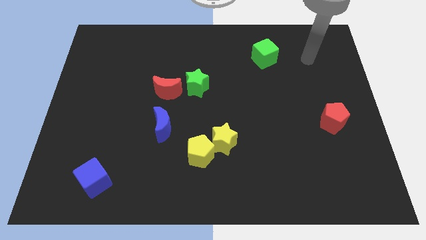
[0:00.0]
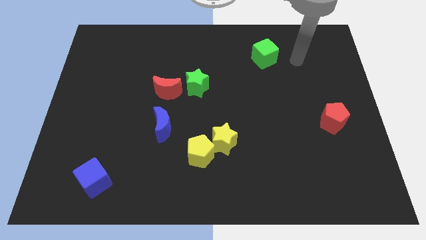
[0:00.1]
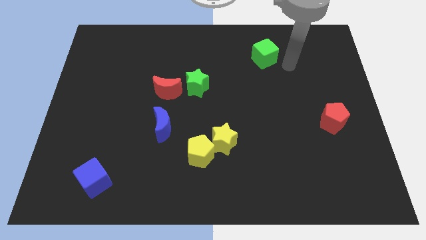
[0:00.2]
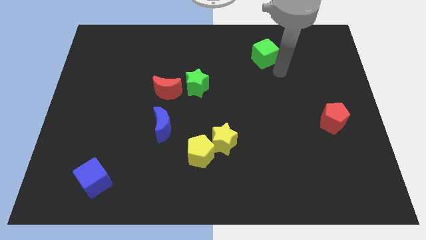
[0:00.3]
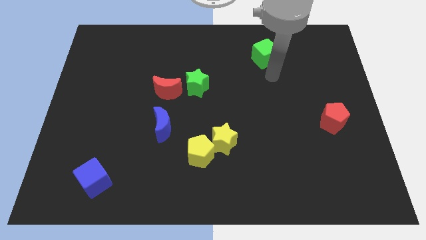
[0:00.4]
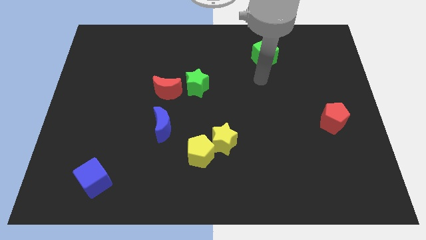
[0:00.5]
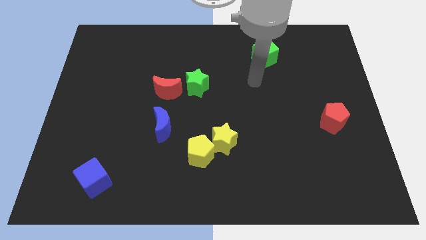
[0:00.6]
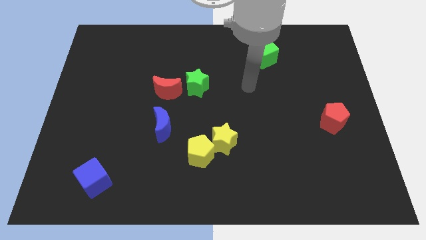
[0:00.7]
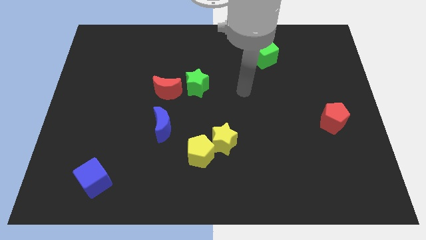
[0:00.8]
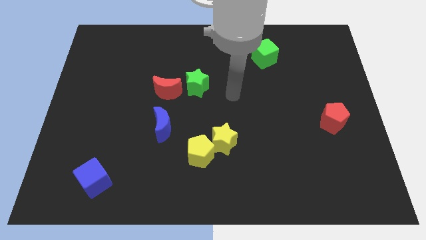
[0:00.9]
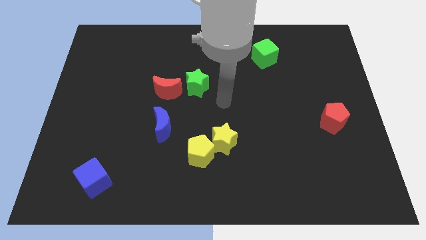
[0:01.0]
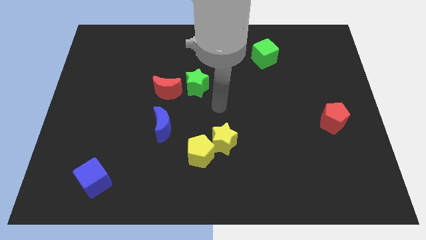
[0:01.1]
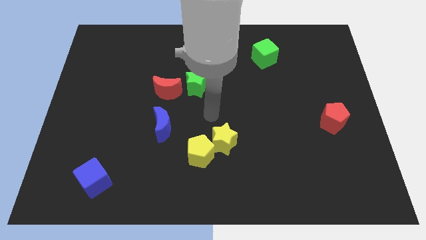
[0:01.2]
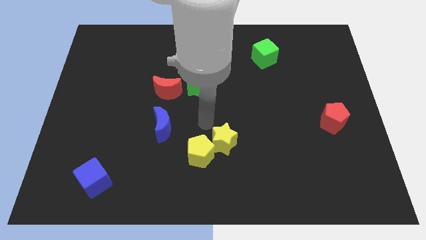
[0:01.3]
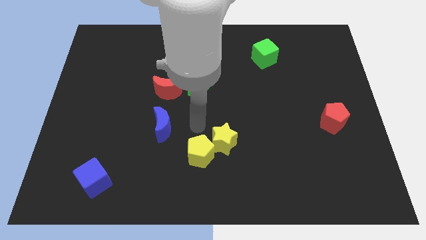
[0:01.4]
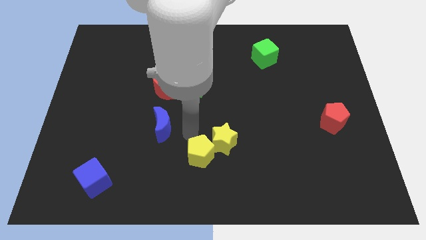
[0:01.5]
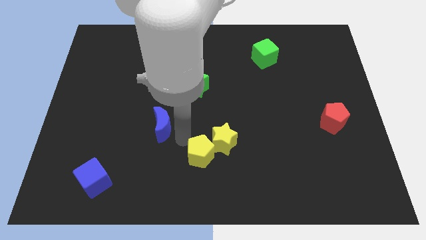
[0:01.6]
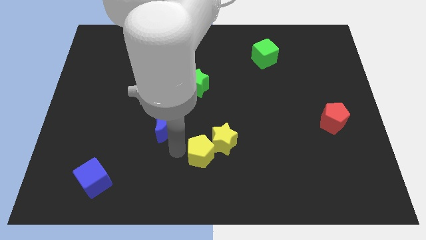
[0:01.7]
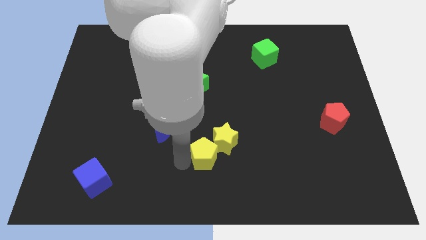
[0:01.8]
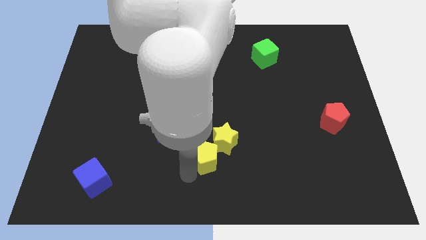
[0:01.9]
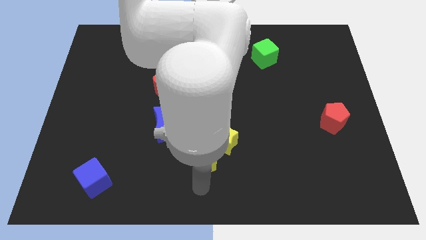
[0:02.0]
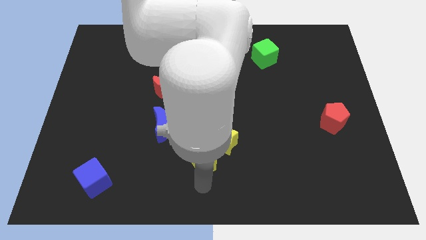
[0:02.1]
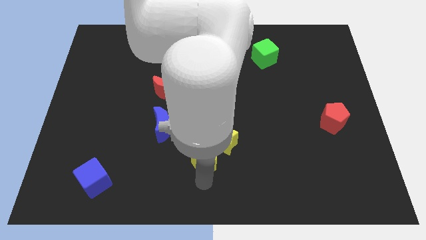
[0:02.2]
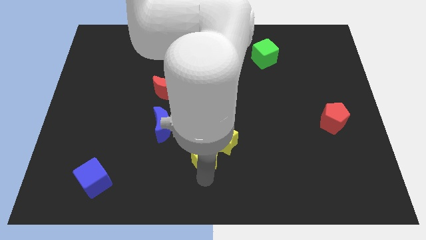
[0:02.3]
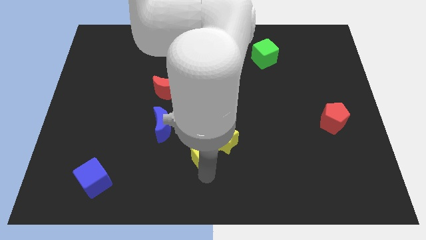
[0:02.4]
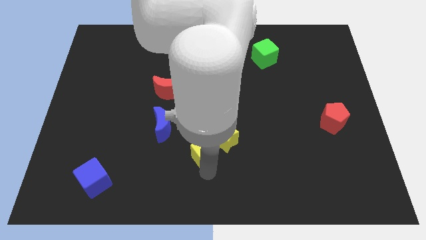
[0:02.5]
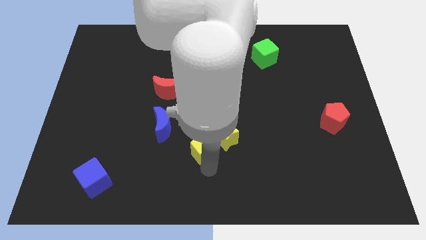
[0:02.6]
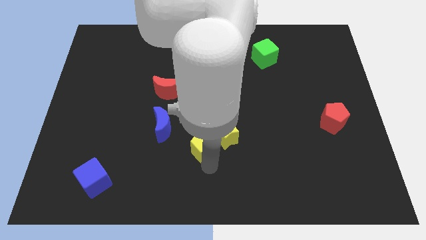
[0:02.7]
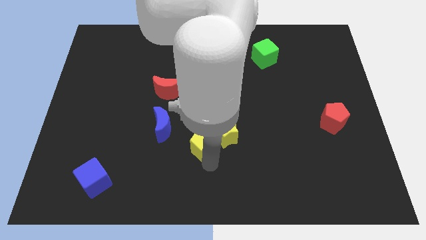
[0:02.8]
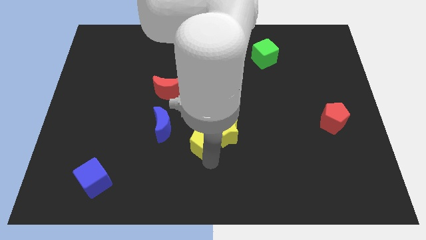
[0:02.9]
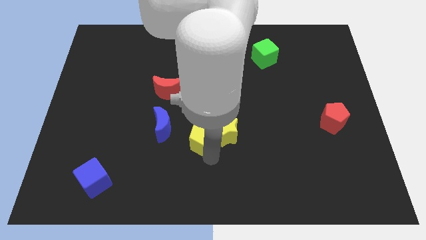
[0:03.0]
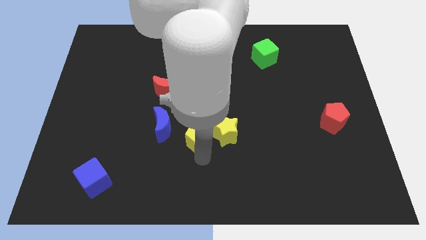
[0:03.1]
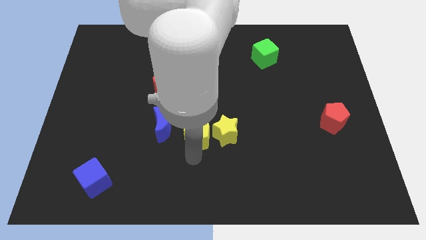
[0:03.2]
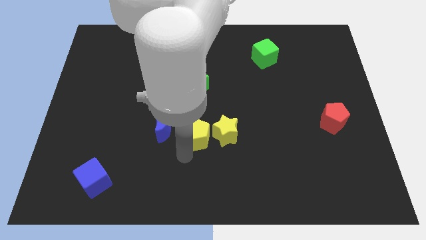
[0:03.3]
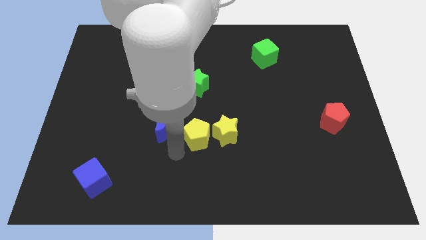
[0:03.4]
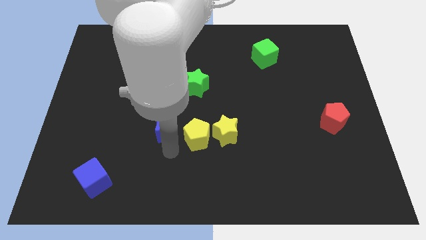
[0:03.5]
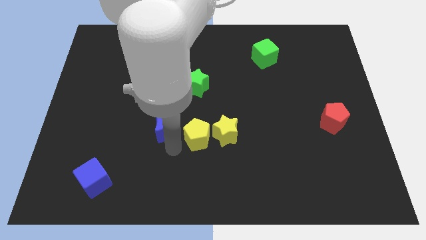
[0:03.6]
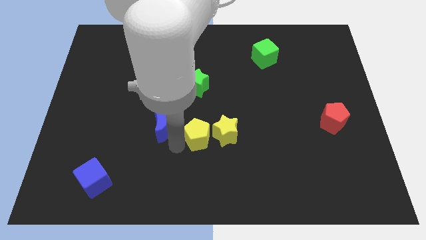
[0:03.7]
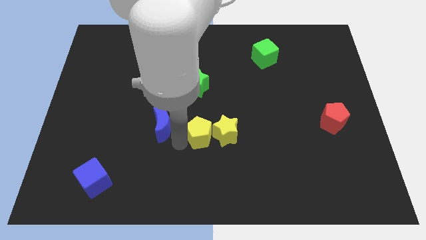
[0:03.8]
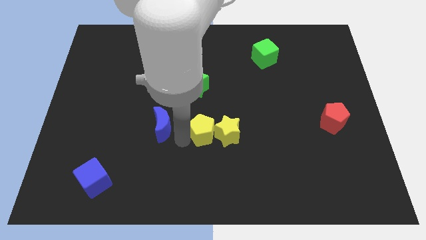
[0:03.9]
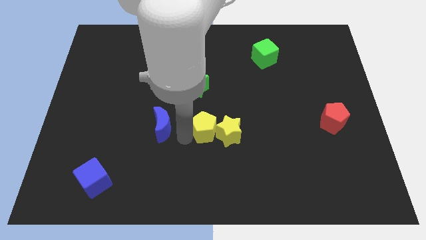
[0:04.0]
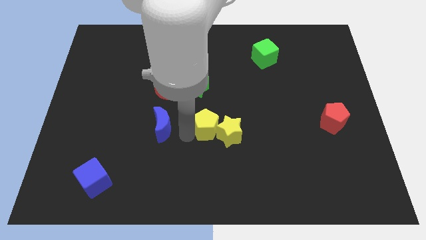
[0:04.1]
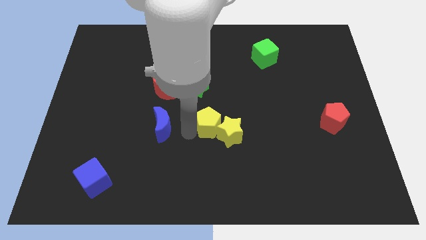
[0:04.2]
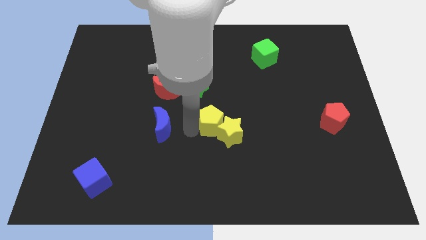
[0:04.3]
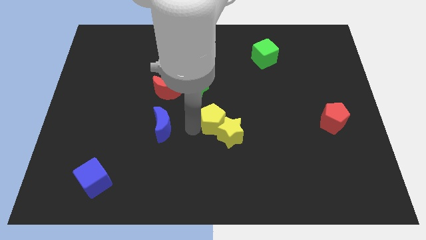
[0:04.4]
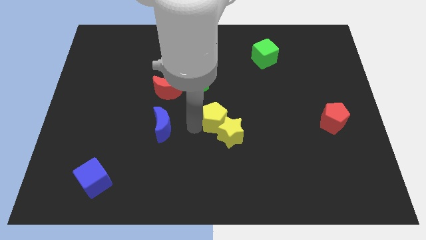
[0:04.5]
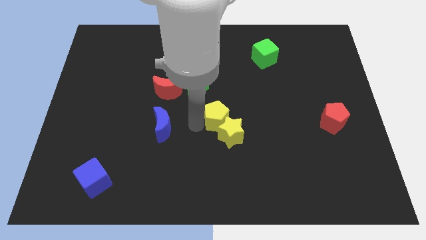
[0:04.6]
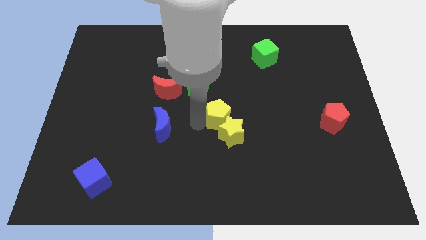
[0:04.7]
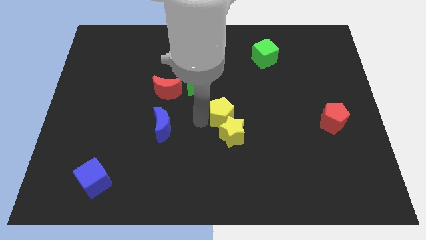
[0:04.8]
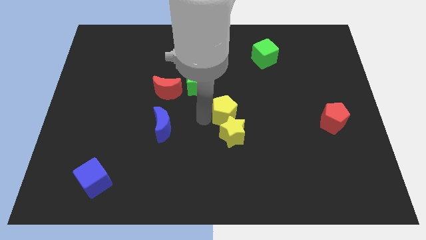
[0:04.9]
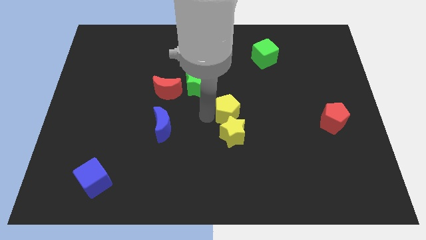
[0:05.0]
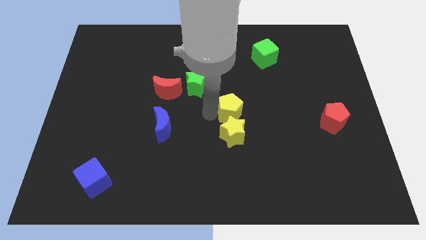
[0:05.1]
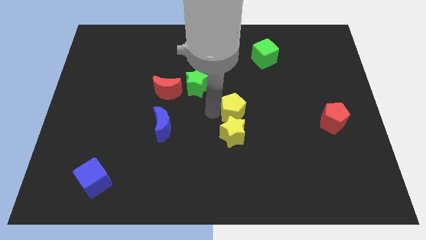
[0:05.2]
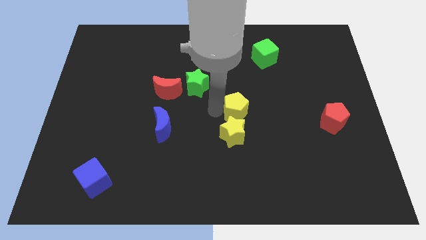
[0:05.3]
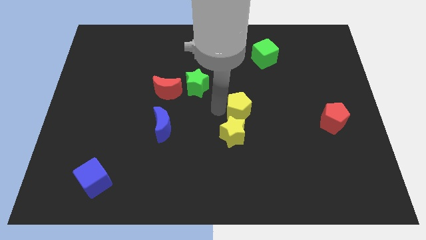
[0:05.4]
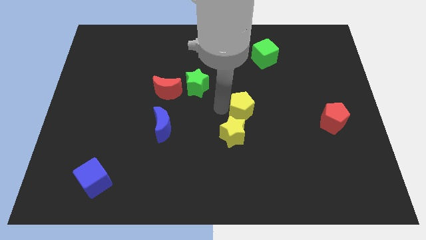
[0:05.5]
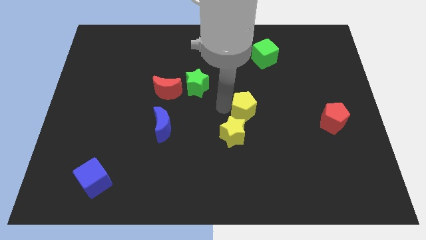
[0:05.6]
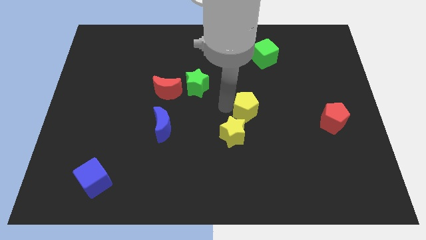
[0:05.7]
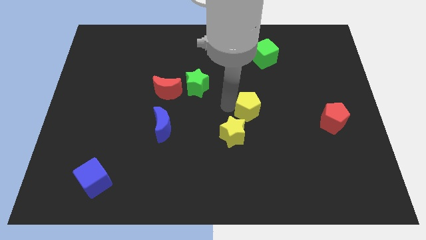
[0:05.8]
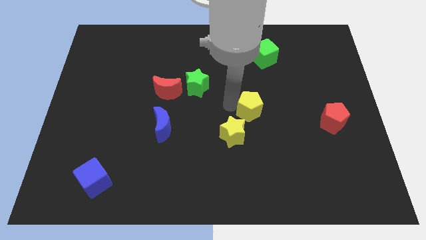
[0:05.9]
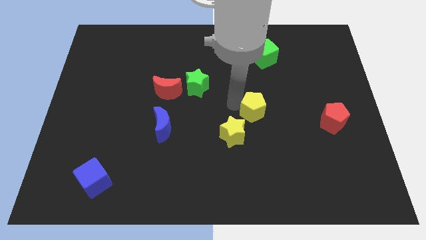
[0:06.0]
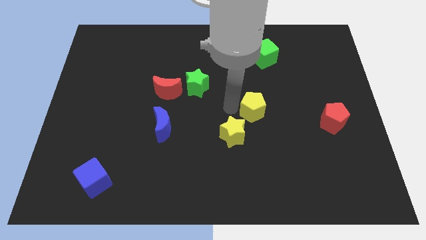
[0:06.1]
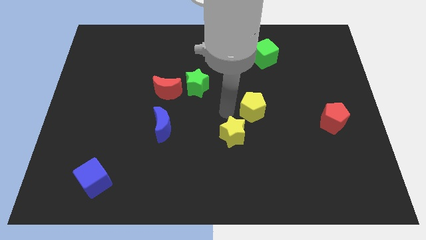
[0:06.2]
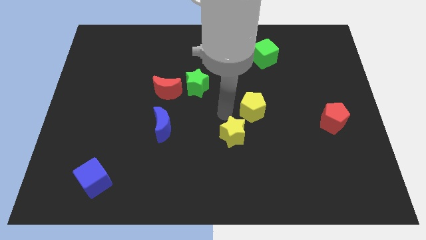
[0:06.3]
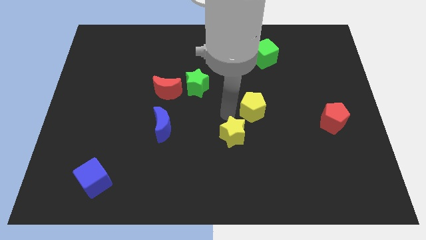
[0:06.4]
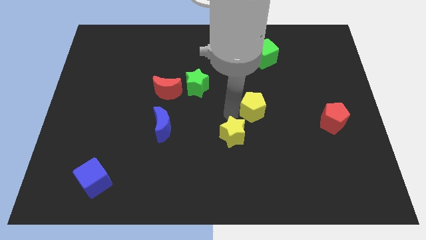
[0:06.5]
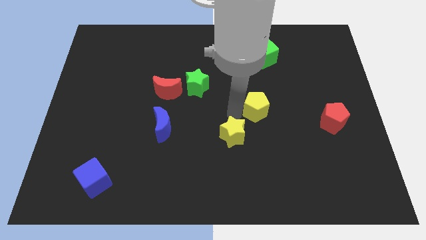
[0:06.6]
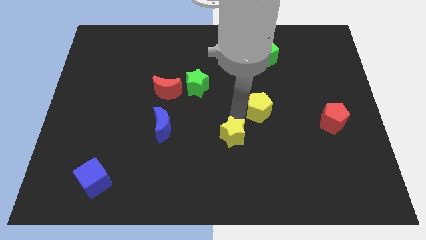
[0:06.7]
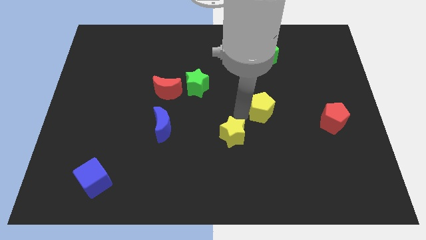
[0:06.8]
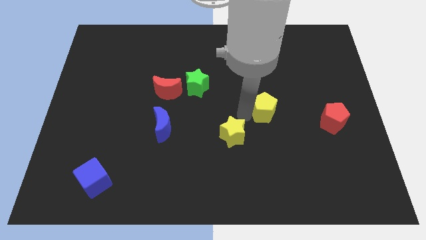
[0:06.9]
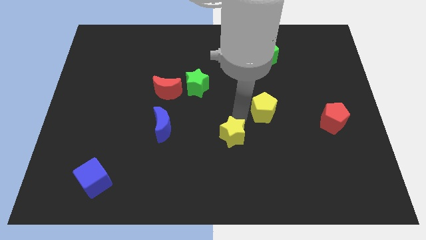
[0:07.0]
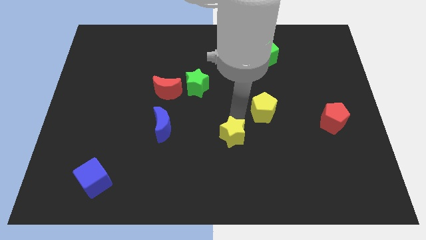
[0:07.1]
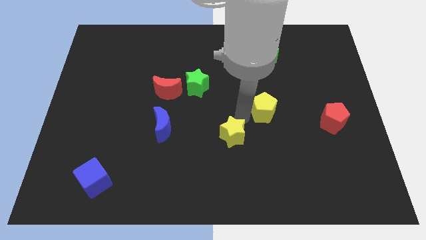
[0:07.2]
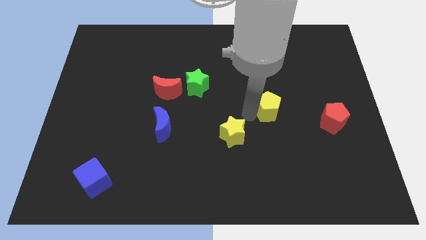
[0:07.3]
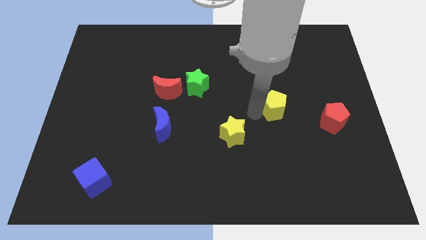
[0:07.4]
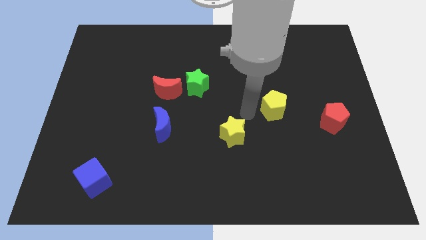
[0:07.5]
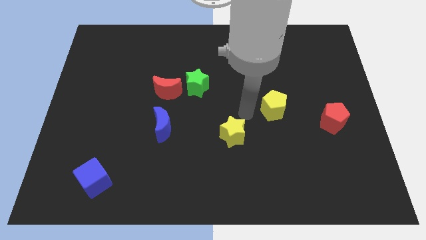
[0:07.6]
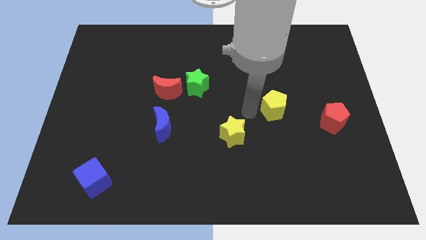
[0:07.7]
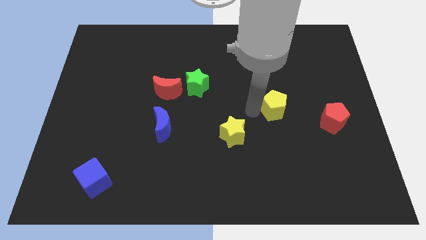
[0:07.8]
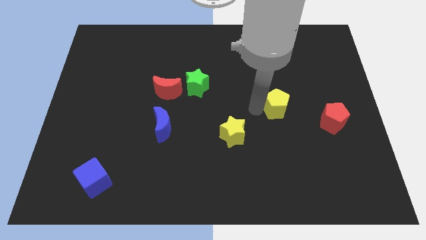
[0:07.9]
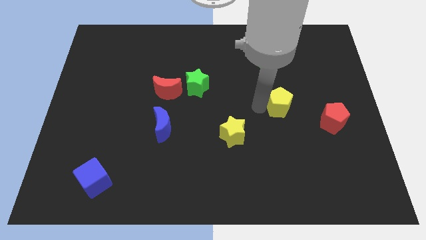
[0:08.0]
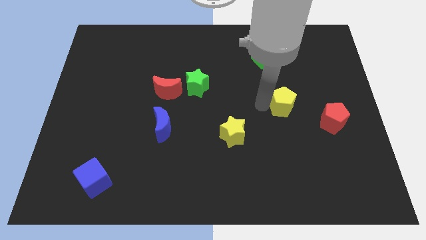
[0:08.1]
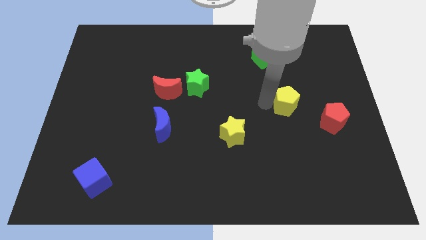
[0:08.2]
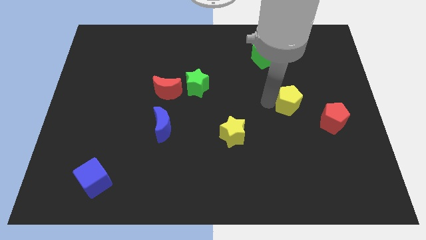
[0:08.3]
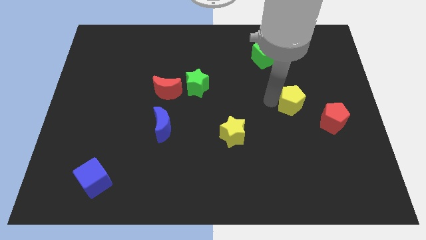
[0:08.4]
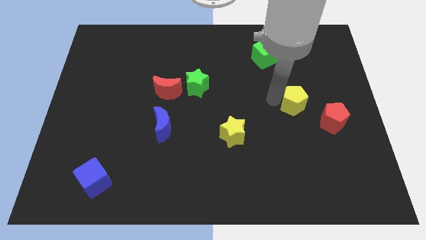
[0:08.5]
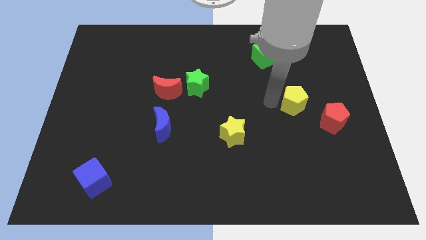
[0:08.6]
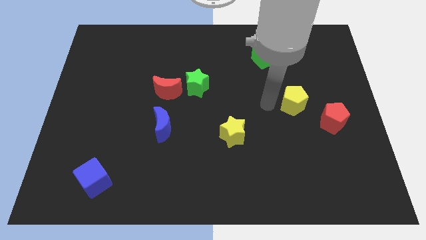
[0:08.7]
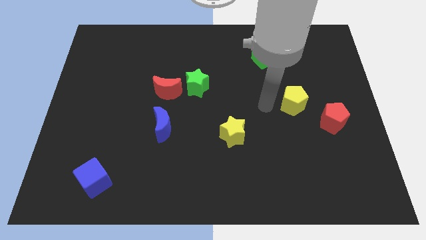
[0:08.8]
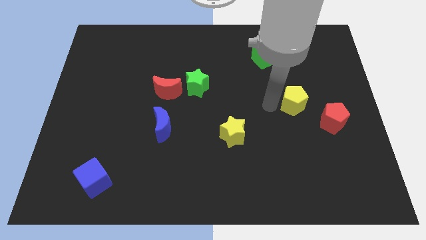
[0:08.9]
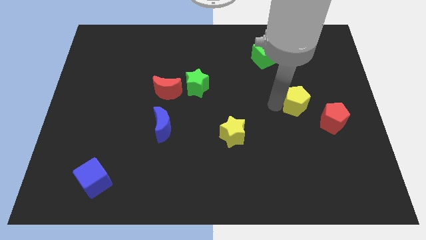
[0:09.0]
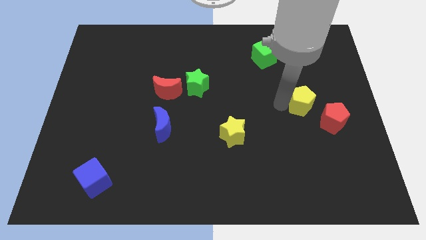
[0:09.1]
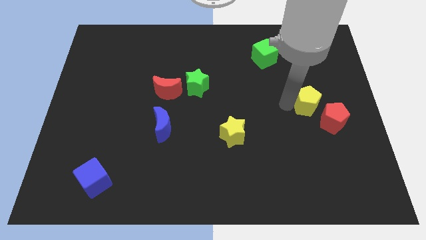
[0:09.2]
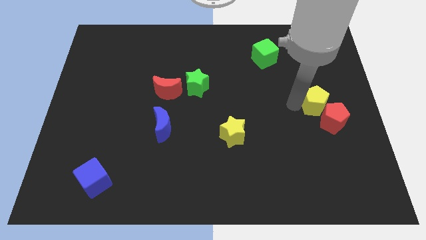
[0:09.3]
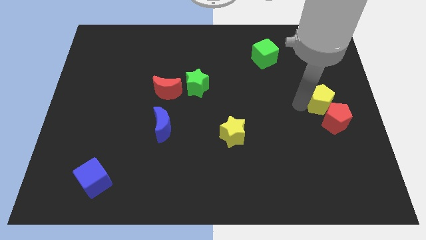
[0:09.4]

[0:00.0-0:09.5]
put the yellow pentagon to the right side
